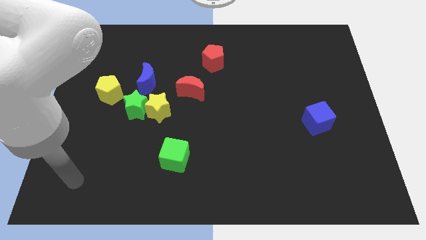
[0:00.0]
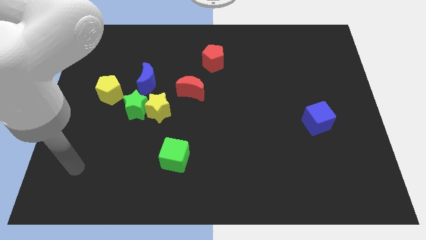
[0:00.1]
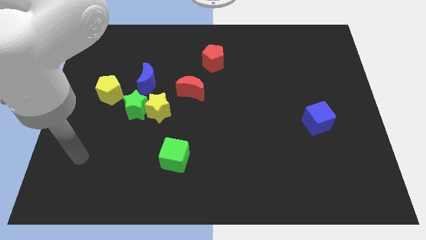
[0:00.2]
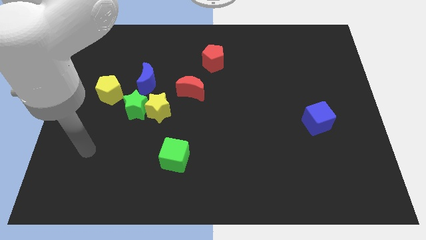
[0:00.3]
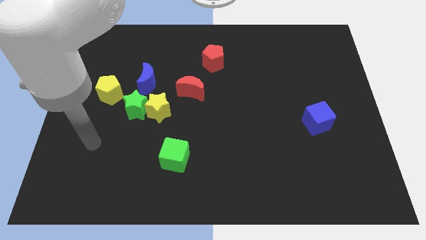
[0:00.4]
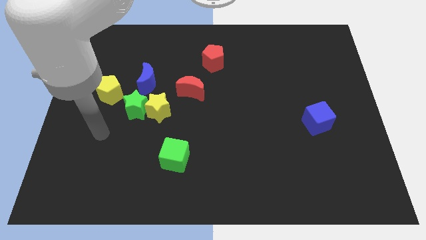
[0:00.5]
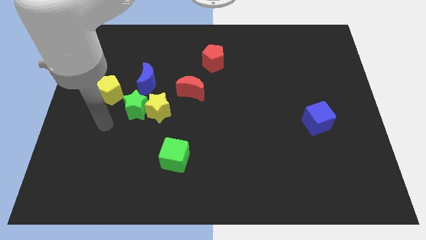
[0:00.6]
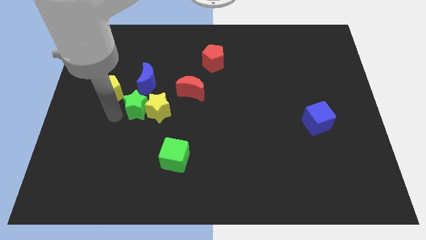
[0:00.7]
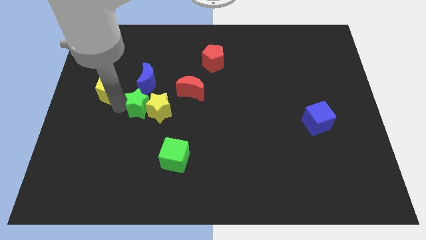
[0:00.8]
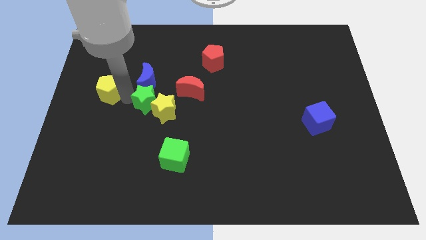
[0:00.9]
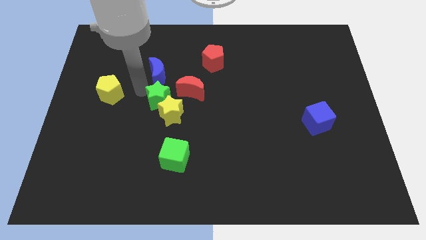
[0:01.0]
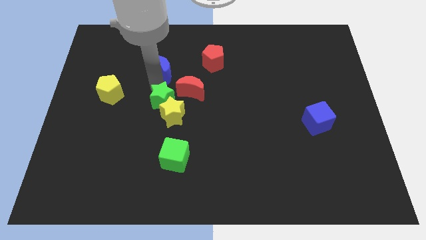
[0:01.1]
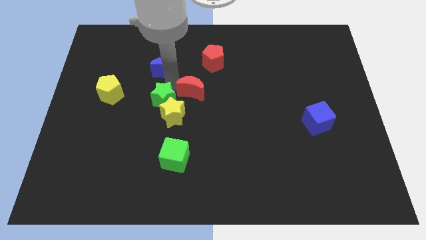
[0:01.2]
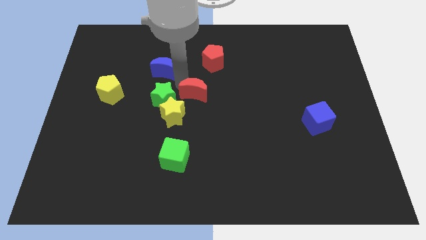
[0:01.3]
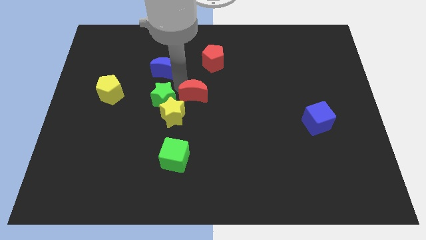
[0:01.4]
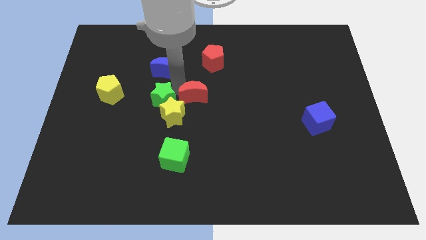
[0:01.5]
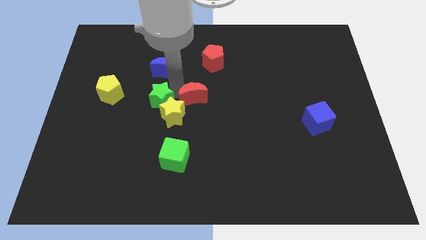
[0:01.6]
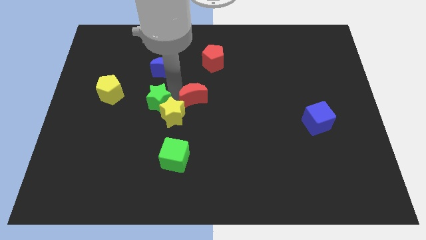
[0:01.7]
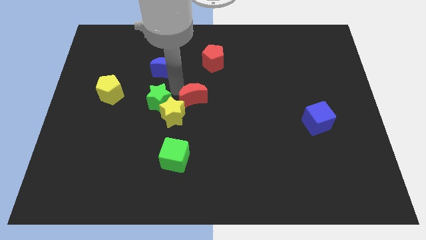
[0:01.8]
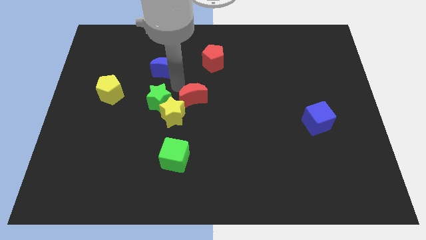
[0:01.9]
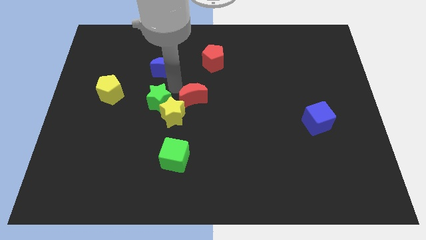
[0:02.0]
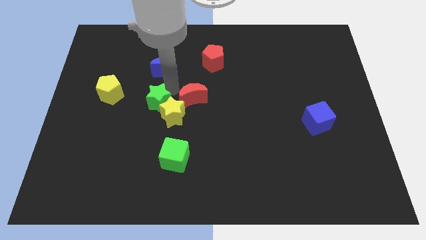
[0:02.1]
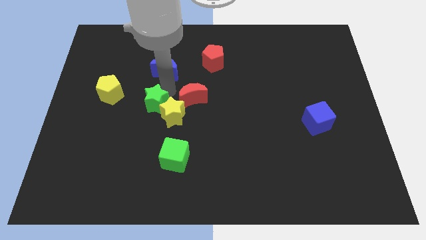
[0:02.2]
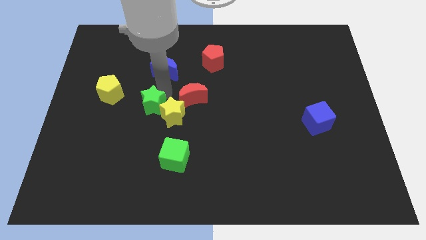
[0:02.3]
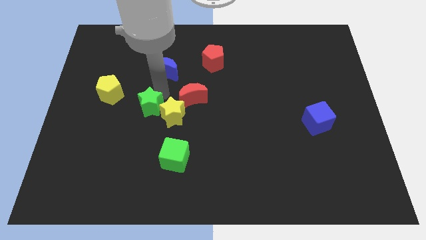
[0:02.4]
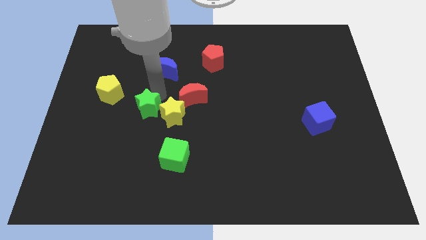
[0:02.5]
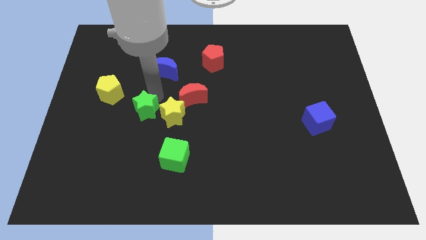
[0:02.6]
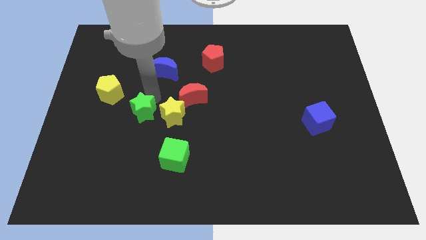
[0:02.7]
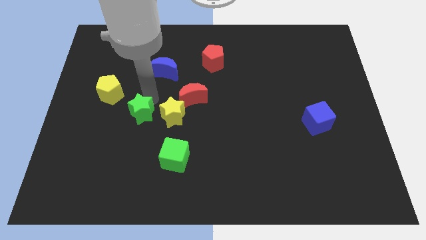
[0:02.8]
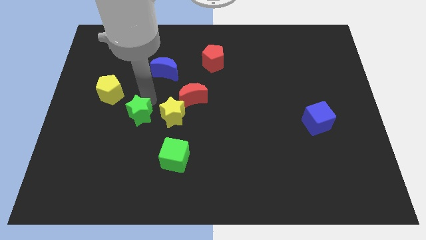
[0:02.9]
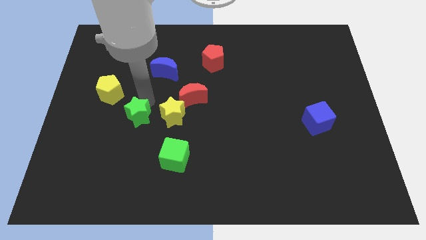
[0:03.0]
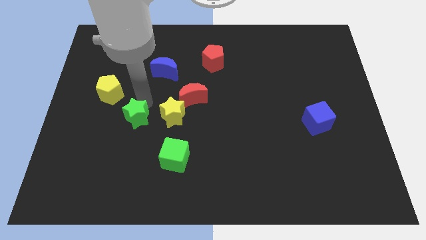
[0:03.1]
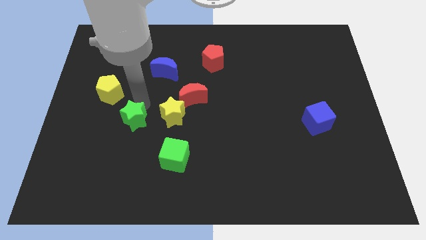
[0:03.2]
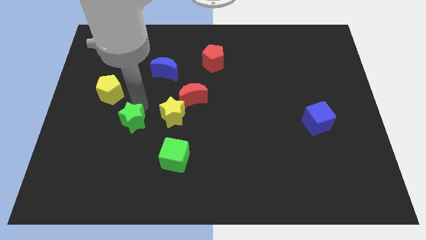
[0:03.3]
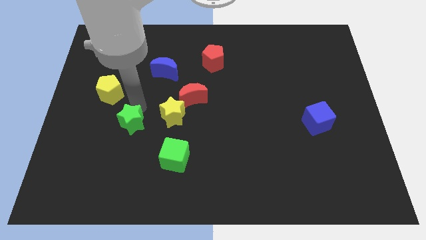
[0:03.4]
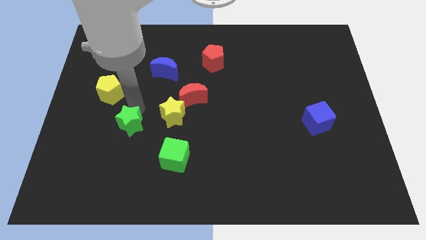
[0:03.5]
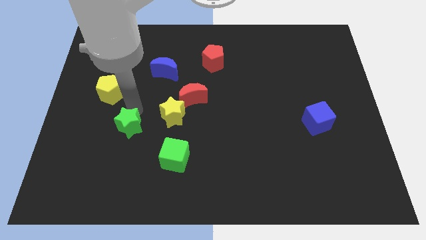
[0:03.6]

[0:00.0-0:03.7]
separate the green star from the yellow star, blue moon, and yellow pentagon

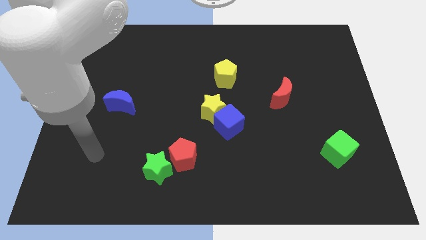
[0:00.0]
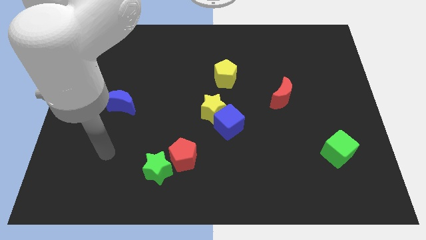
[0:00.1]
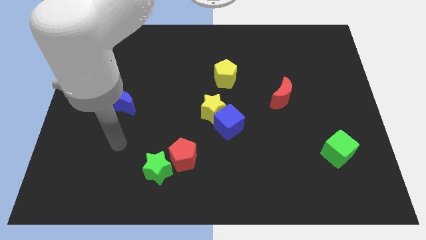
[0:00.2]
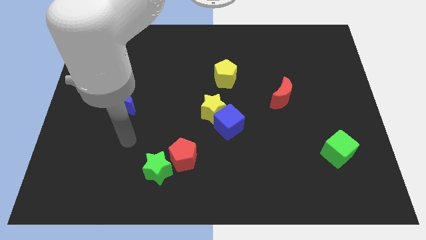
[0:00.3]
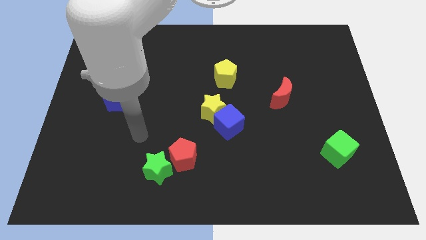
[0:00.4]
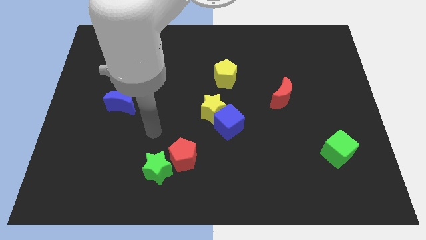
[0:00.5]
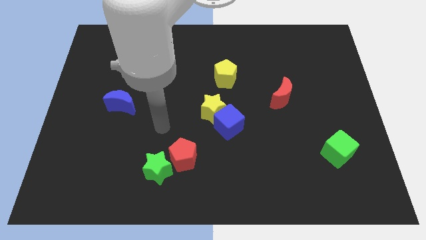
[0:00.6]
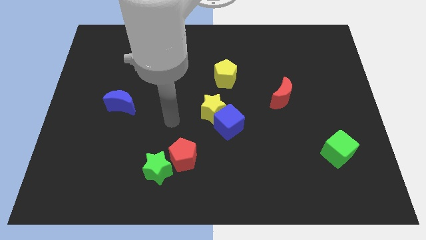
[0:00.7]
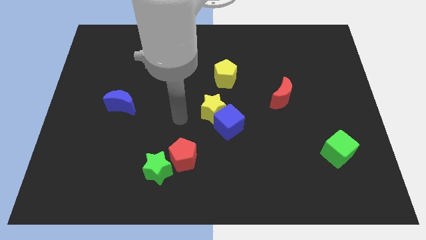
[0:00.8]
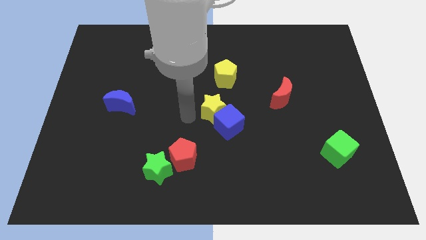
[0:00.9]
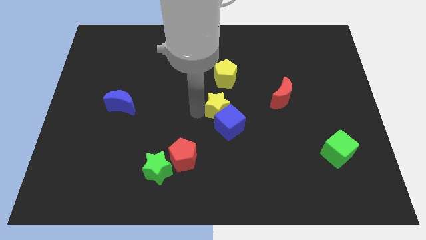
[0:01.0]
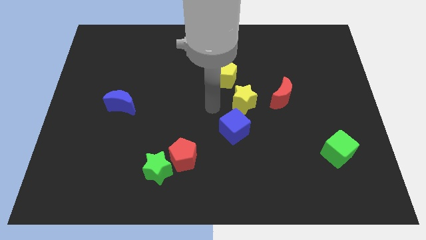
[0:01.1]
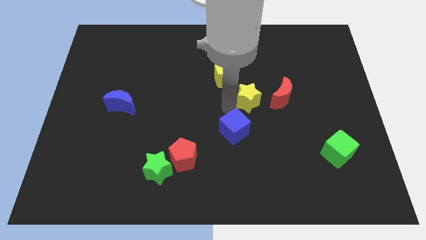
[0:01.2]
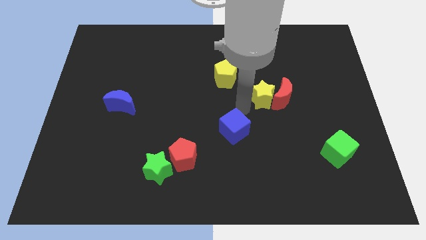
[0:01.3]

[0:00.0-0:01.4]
pull the blue cube apart from the yellow star

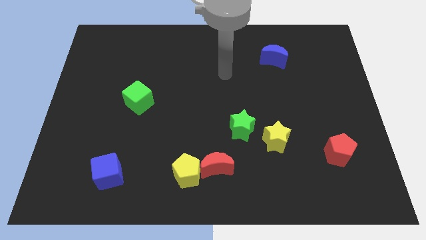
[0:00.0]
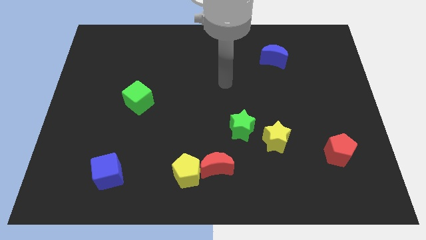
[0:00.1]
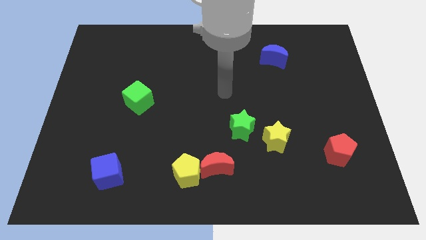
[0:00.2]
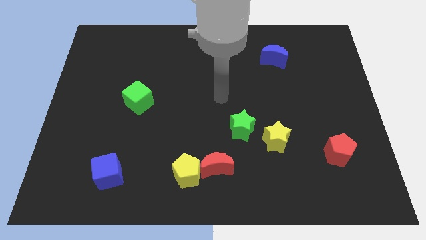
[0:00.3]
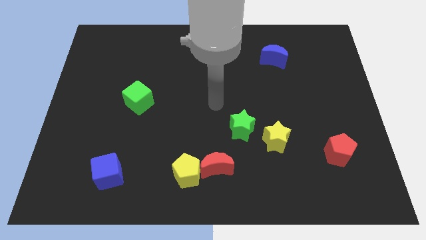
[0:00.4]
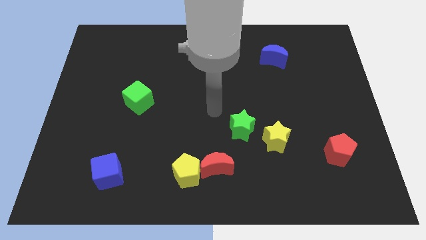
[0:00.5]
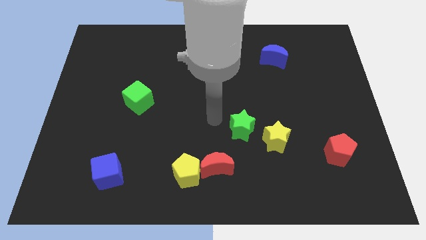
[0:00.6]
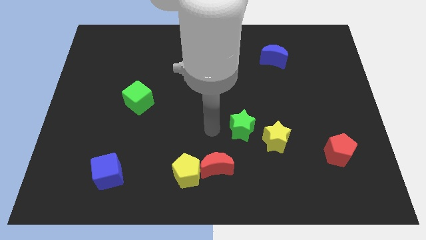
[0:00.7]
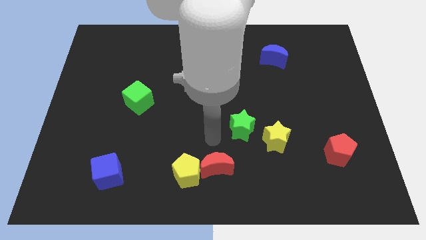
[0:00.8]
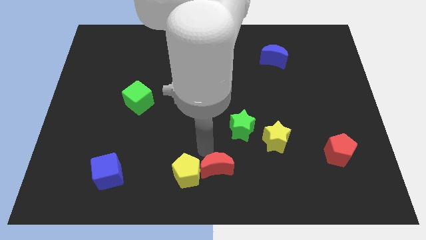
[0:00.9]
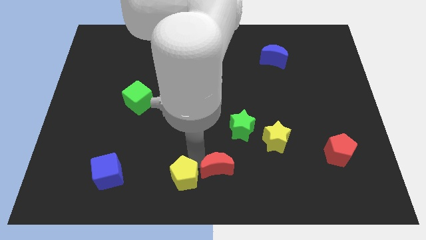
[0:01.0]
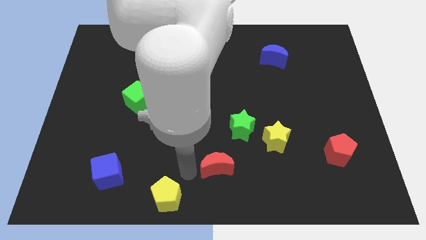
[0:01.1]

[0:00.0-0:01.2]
separate the red moon from the yellow pentagon

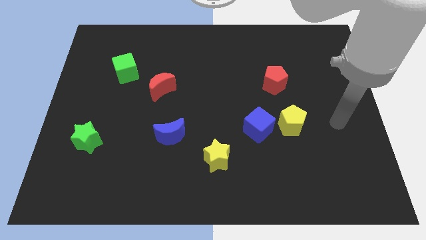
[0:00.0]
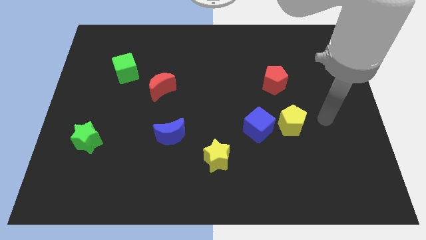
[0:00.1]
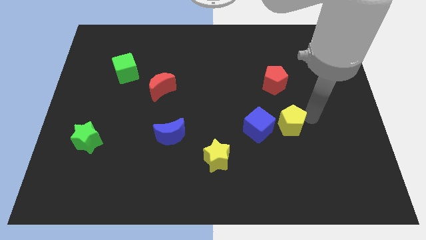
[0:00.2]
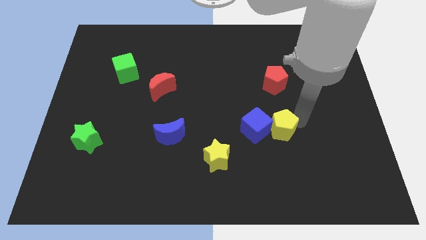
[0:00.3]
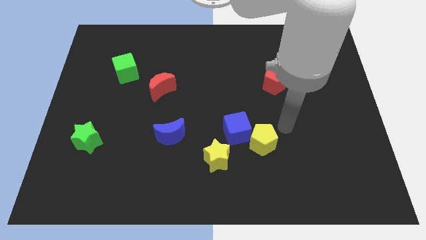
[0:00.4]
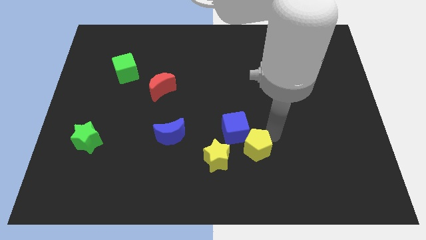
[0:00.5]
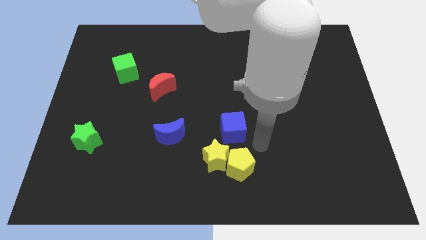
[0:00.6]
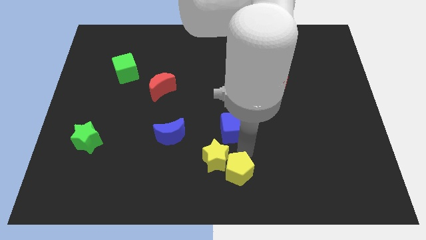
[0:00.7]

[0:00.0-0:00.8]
separate the blue cube from the yellow pentagon

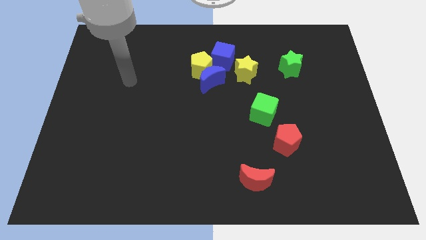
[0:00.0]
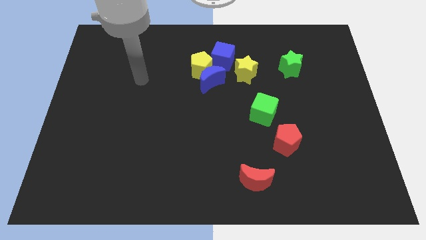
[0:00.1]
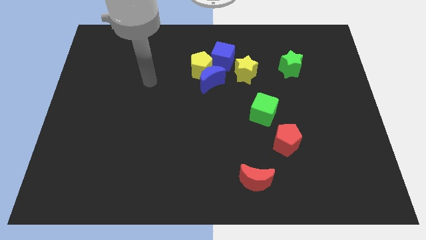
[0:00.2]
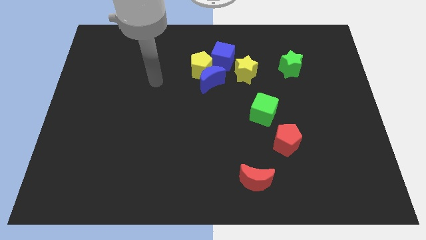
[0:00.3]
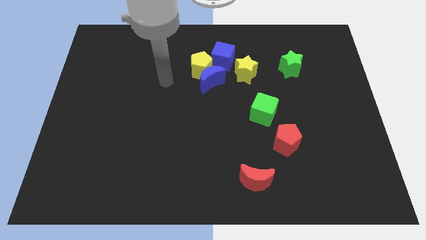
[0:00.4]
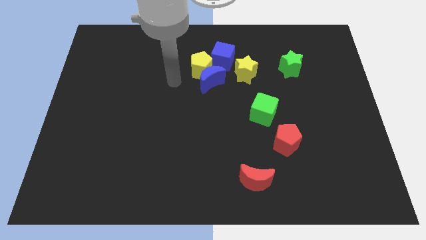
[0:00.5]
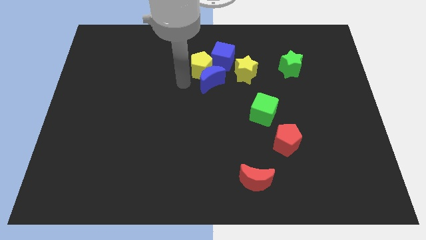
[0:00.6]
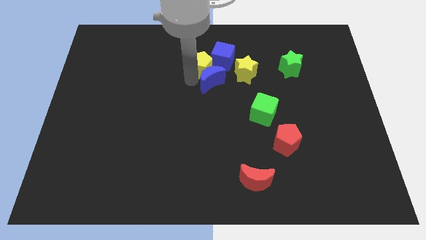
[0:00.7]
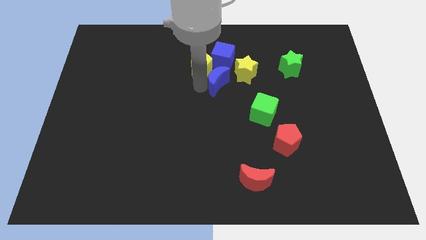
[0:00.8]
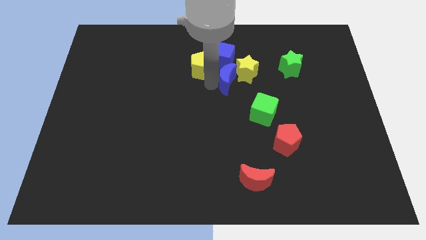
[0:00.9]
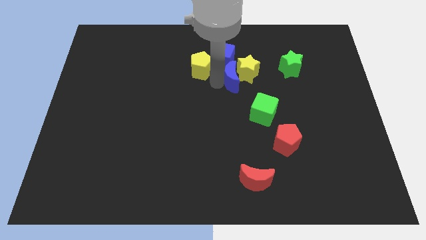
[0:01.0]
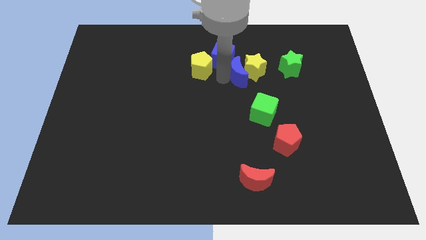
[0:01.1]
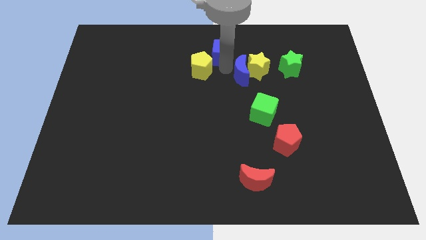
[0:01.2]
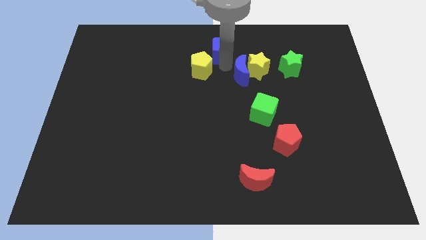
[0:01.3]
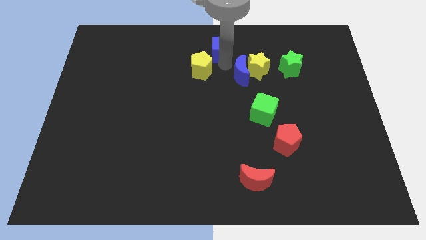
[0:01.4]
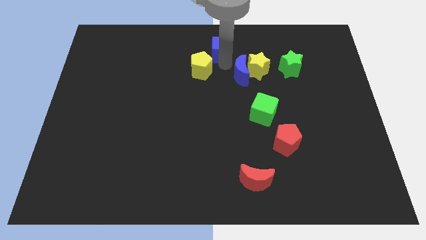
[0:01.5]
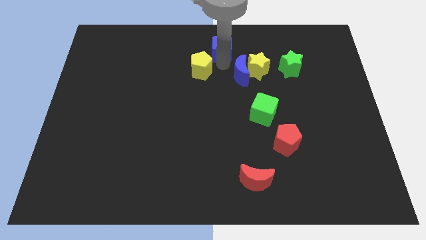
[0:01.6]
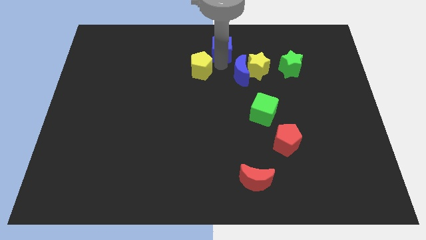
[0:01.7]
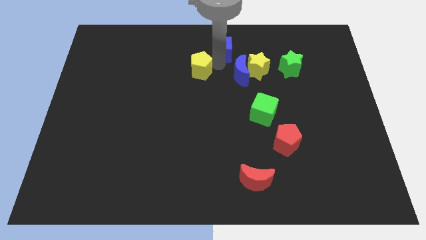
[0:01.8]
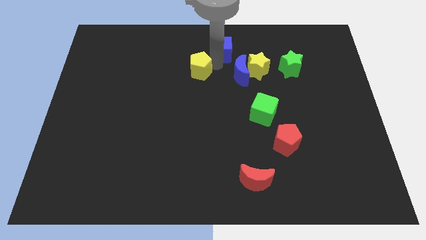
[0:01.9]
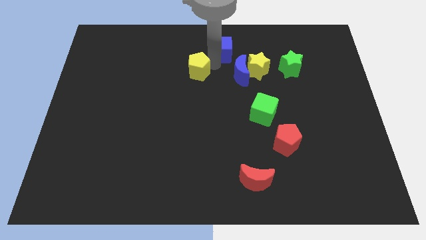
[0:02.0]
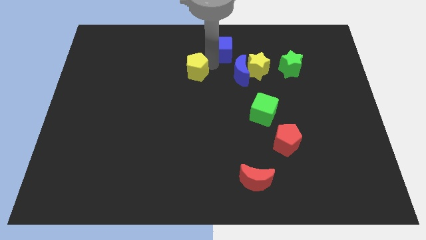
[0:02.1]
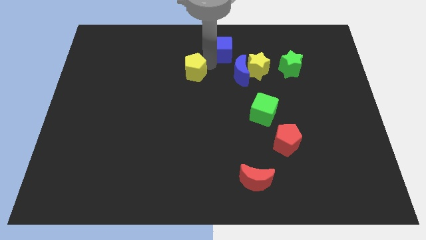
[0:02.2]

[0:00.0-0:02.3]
move the yellow pentagon away from the blue moon and blue cube

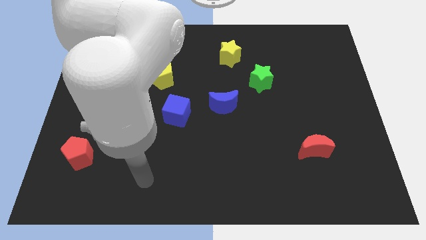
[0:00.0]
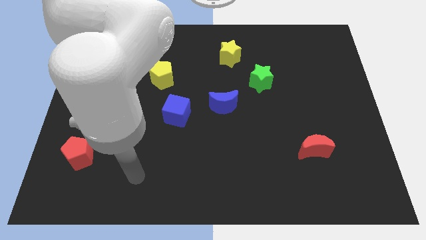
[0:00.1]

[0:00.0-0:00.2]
separate the red pentagon from the green cube
